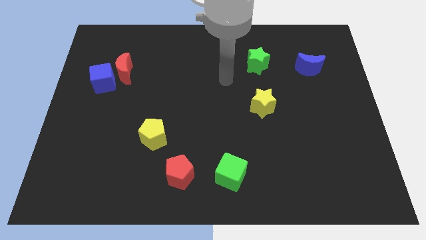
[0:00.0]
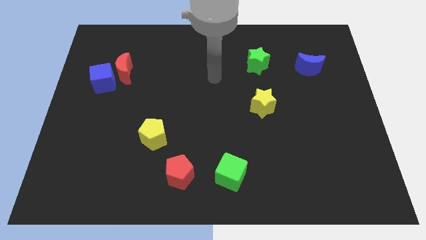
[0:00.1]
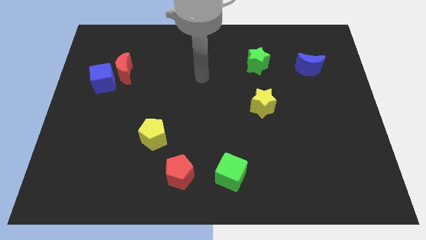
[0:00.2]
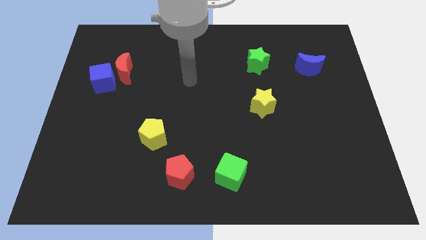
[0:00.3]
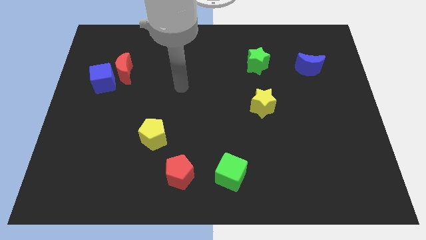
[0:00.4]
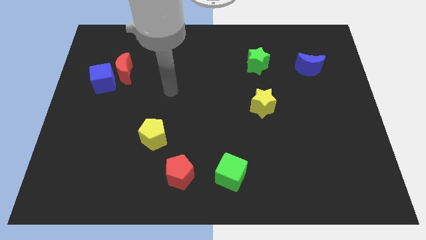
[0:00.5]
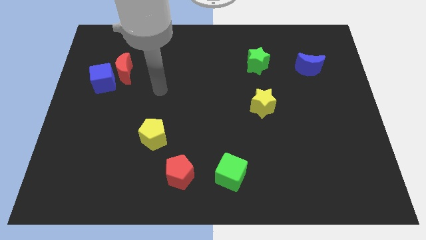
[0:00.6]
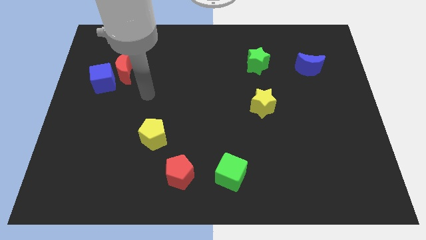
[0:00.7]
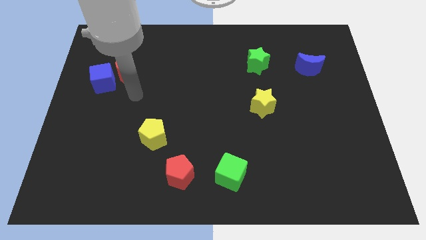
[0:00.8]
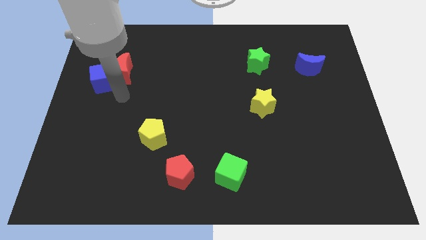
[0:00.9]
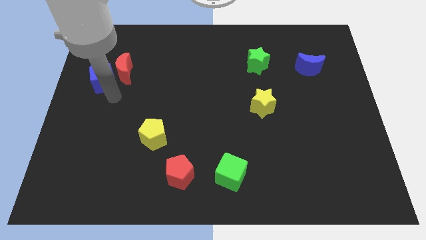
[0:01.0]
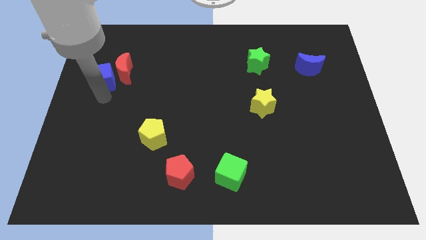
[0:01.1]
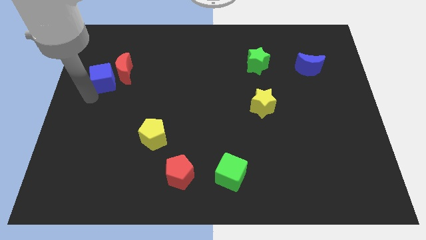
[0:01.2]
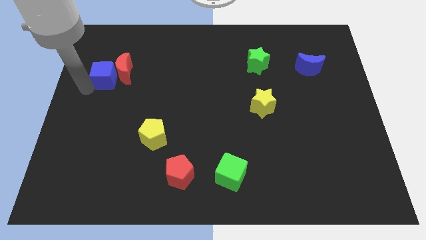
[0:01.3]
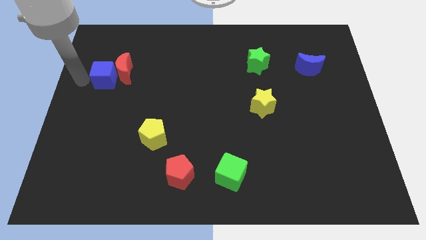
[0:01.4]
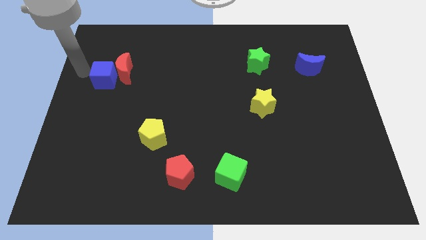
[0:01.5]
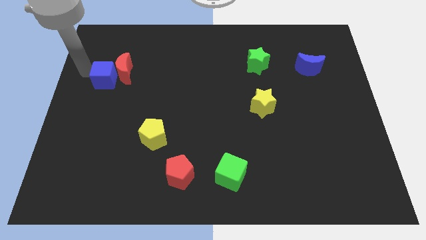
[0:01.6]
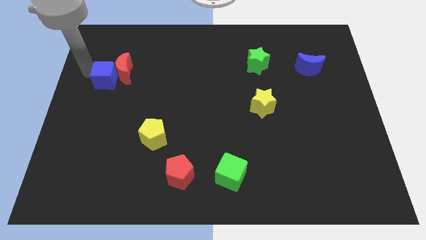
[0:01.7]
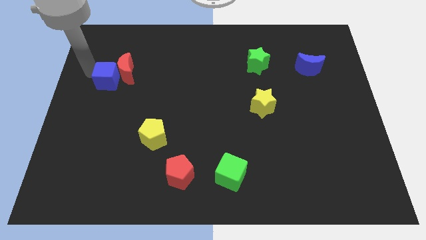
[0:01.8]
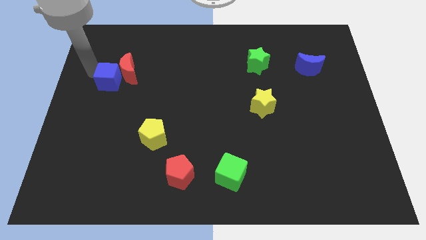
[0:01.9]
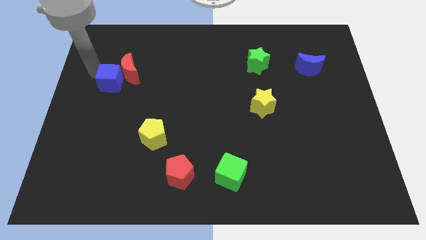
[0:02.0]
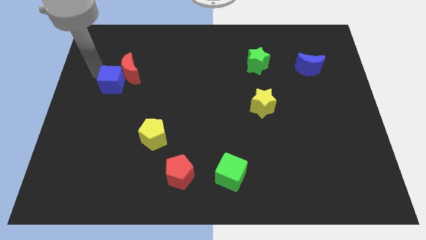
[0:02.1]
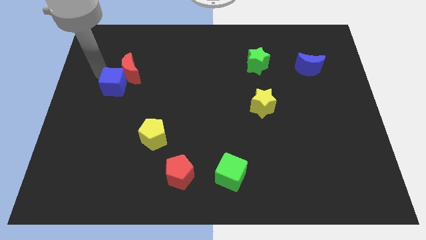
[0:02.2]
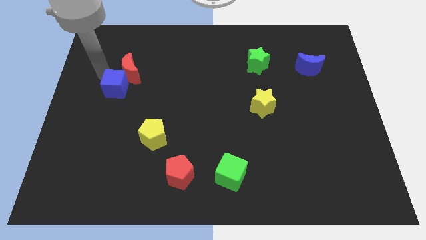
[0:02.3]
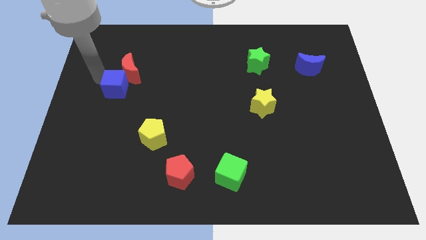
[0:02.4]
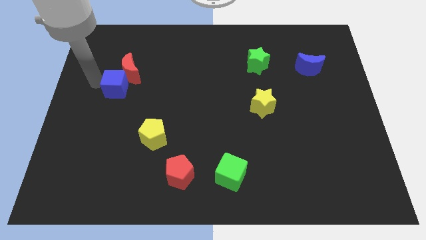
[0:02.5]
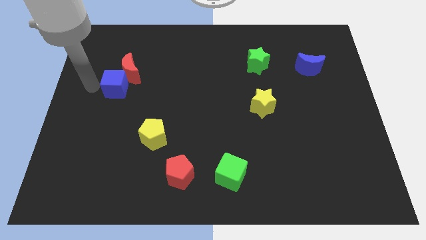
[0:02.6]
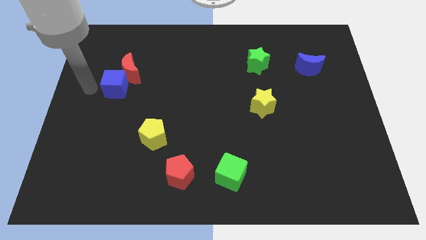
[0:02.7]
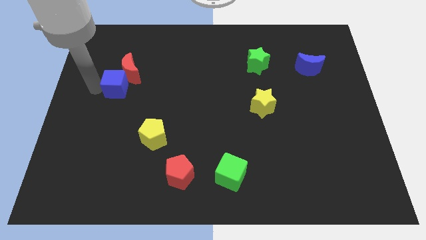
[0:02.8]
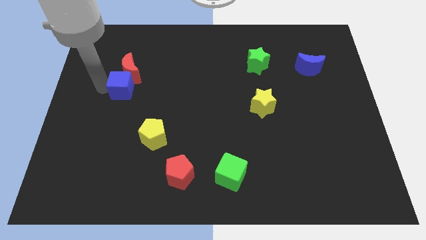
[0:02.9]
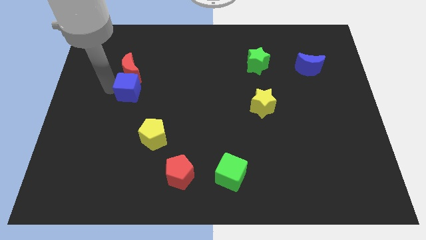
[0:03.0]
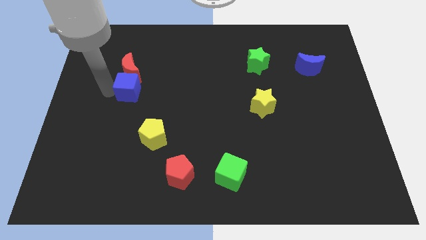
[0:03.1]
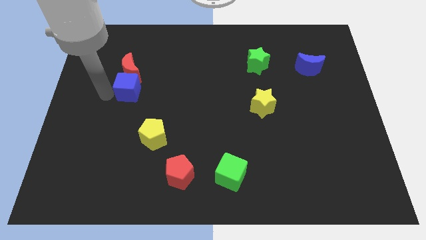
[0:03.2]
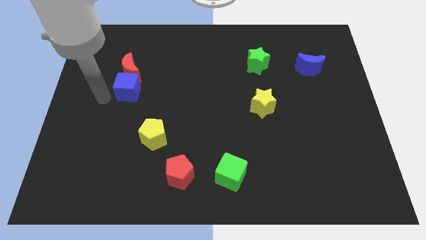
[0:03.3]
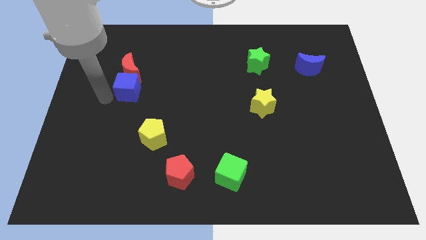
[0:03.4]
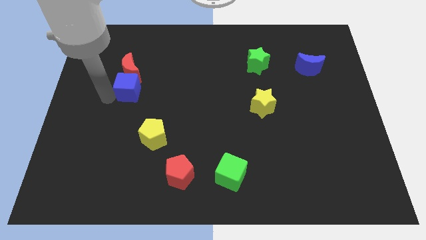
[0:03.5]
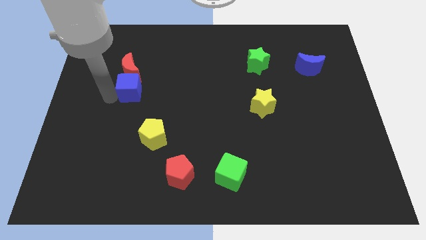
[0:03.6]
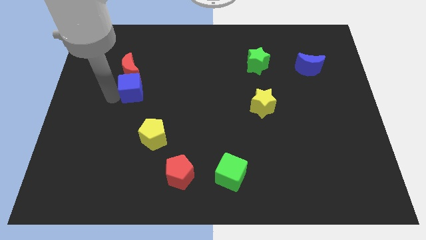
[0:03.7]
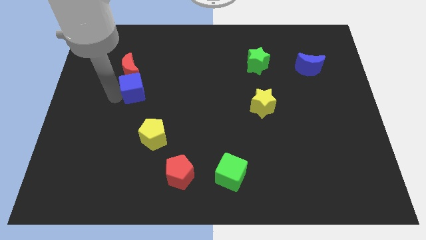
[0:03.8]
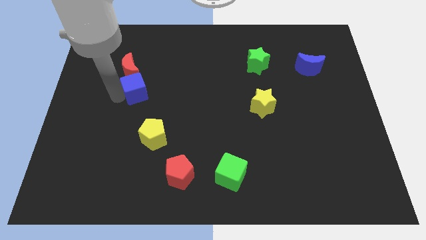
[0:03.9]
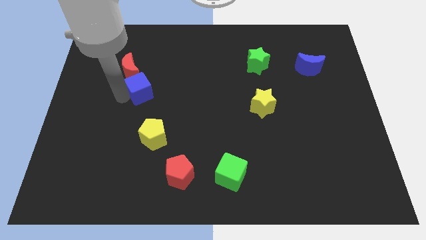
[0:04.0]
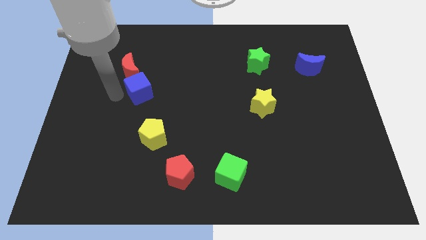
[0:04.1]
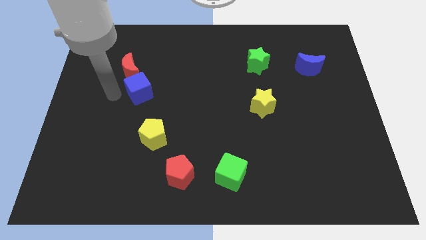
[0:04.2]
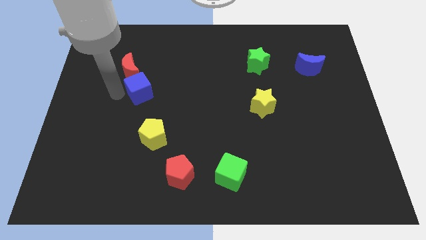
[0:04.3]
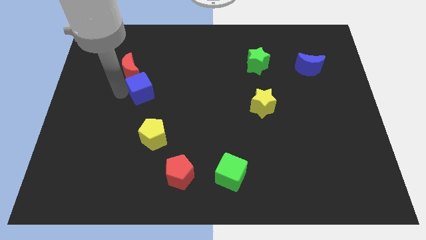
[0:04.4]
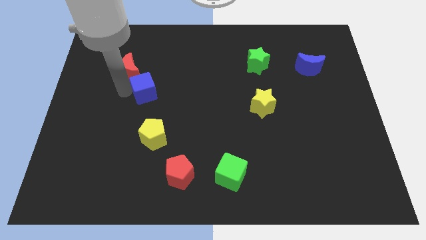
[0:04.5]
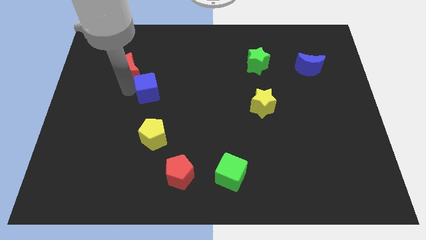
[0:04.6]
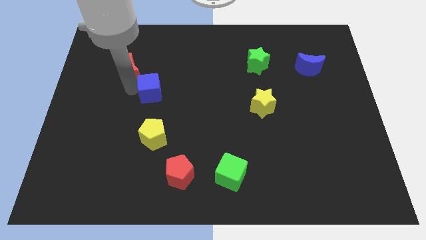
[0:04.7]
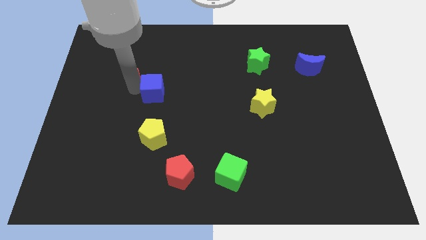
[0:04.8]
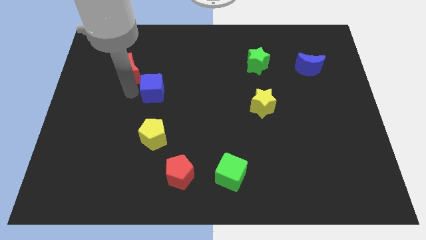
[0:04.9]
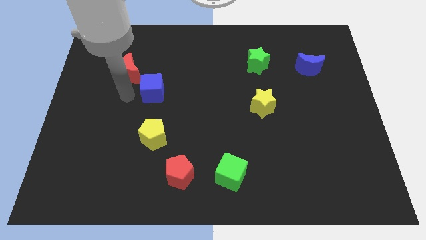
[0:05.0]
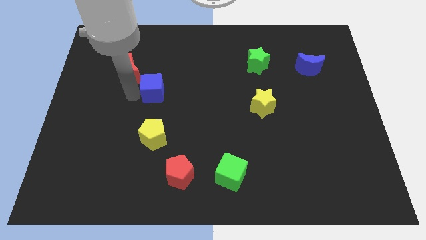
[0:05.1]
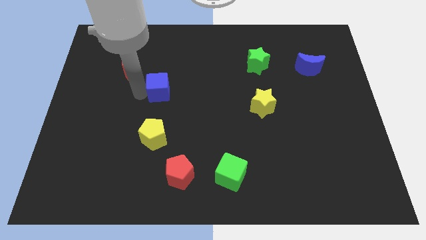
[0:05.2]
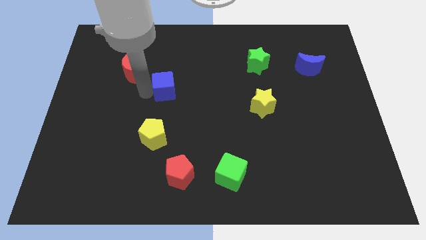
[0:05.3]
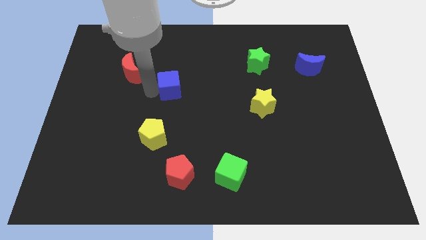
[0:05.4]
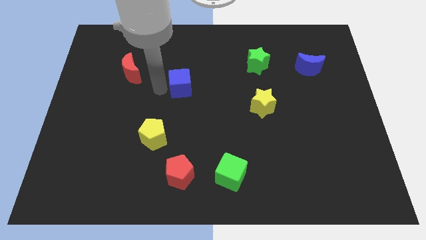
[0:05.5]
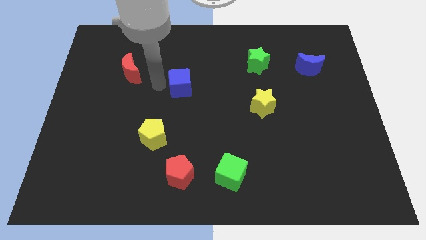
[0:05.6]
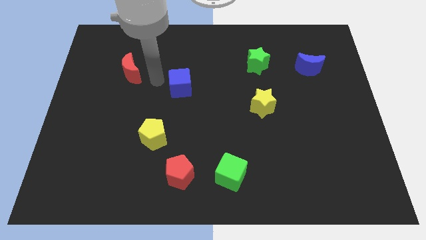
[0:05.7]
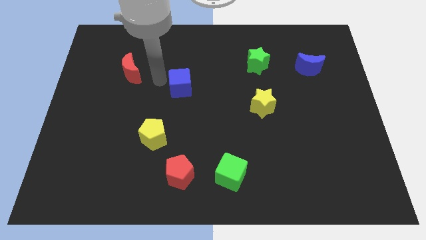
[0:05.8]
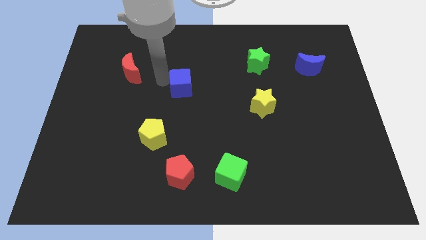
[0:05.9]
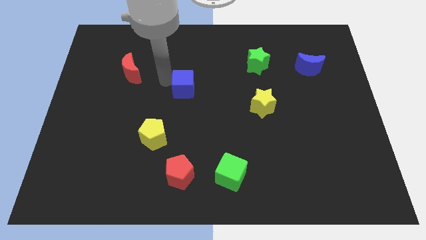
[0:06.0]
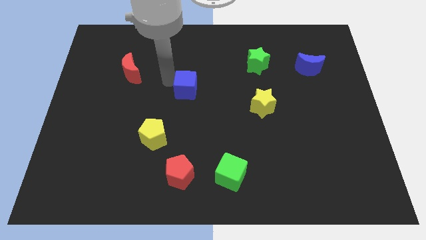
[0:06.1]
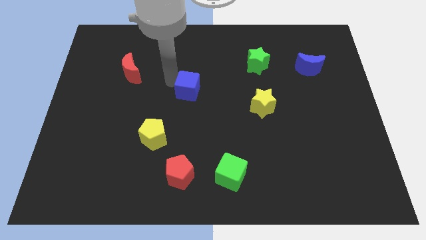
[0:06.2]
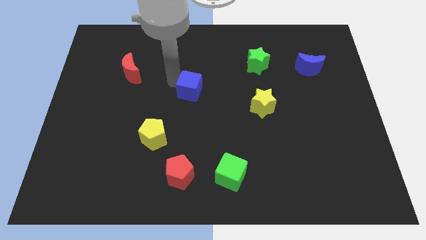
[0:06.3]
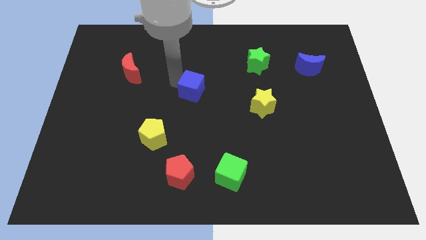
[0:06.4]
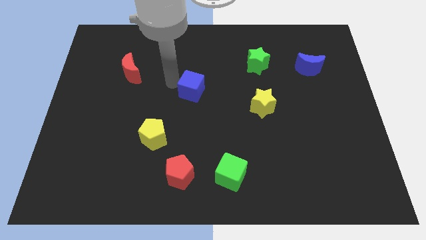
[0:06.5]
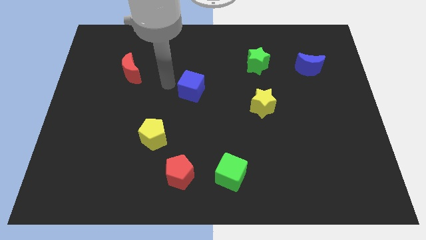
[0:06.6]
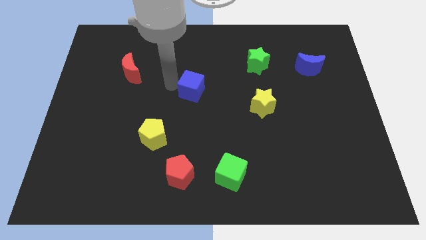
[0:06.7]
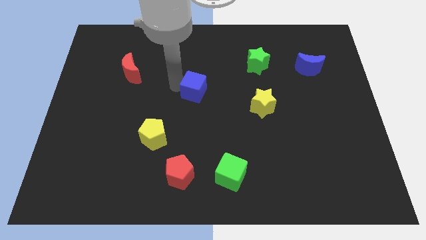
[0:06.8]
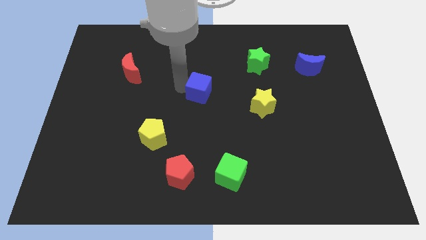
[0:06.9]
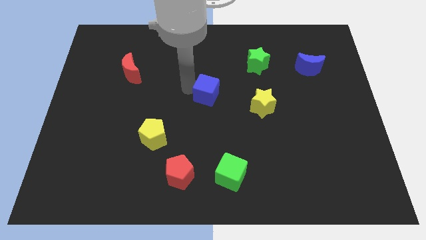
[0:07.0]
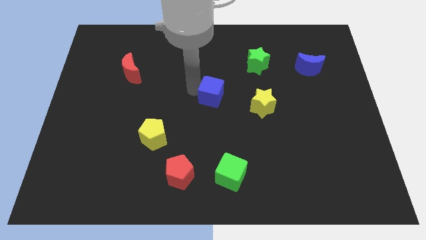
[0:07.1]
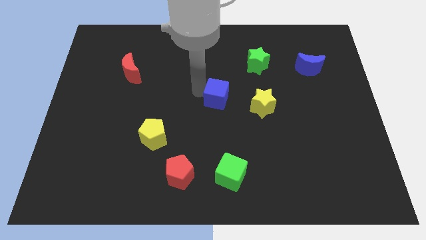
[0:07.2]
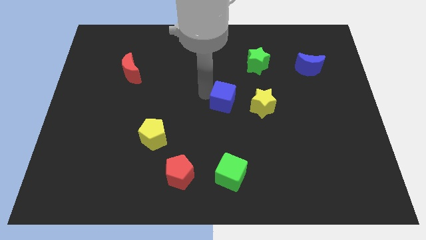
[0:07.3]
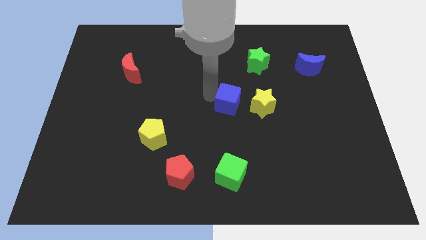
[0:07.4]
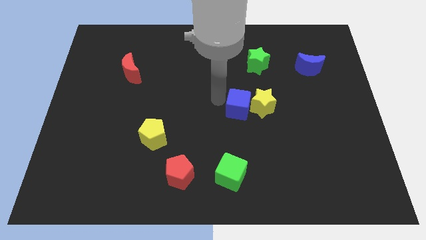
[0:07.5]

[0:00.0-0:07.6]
push the blue cube next to the yellow star
